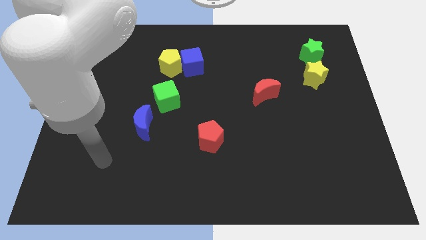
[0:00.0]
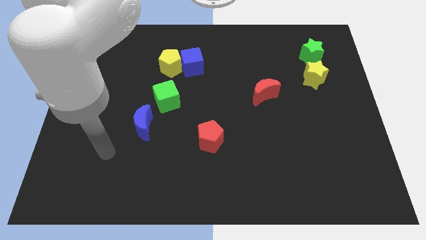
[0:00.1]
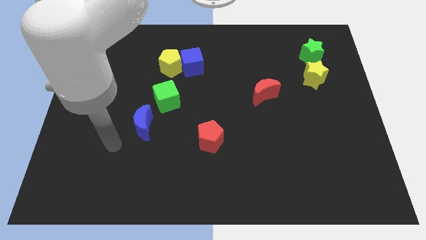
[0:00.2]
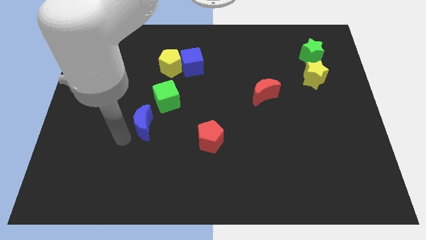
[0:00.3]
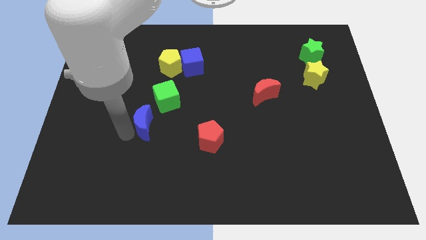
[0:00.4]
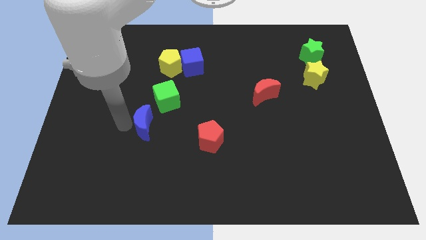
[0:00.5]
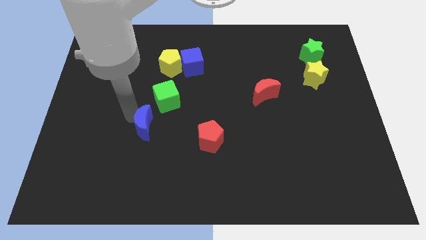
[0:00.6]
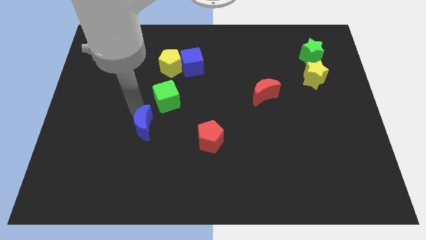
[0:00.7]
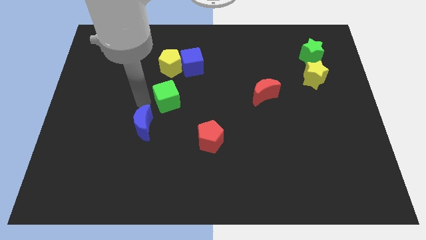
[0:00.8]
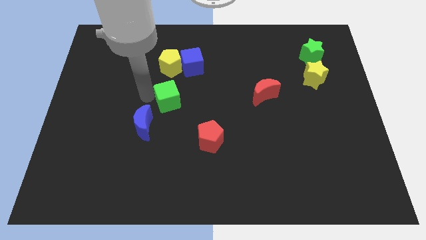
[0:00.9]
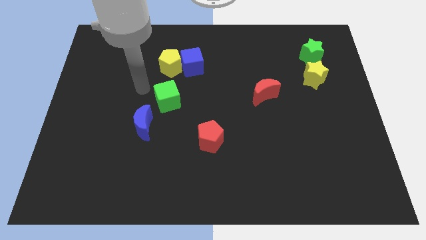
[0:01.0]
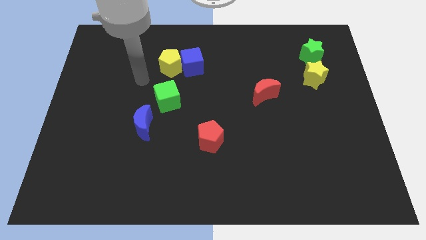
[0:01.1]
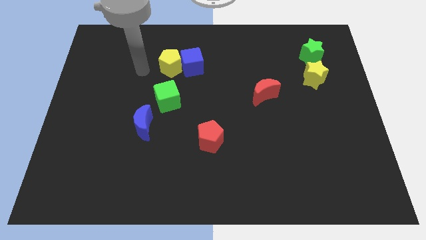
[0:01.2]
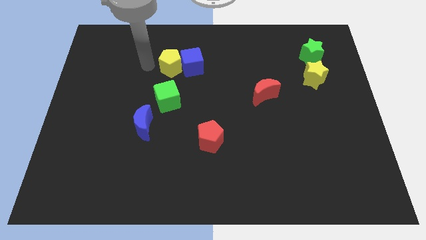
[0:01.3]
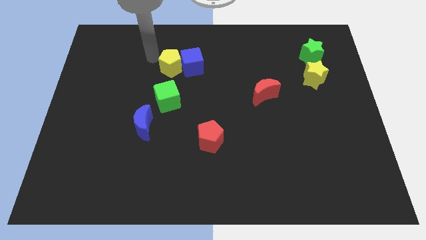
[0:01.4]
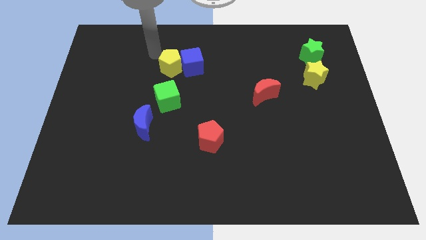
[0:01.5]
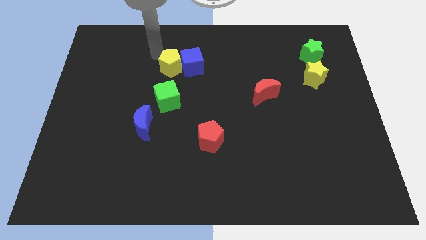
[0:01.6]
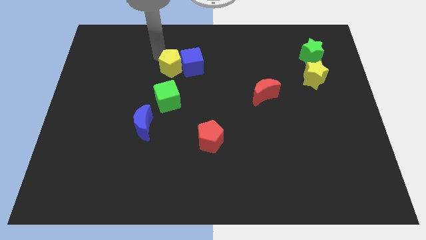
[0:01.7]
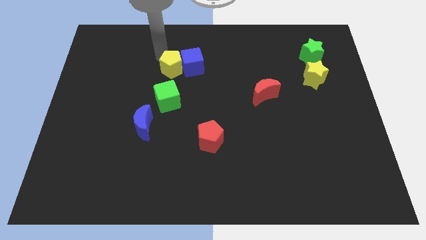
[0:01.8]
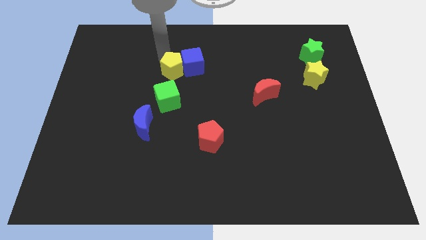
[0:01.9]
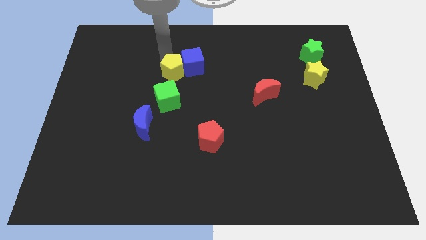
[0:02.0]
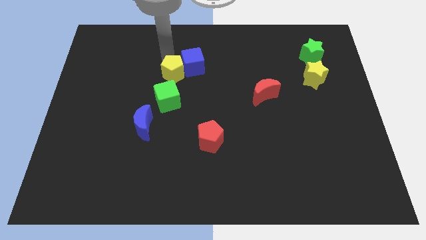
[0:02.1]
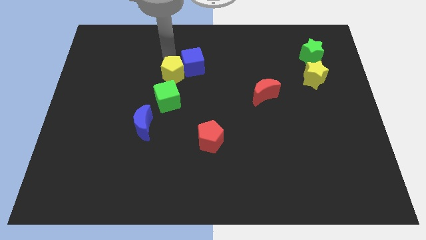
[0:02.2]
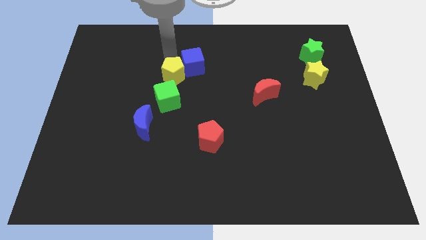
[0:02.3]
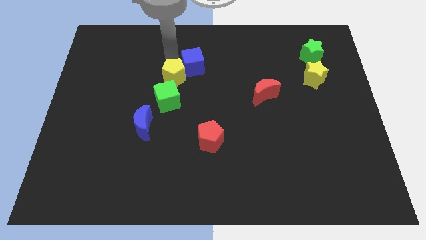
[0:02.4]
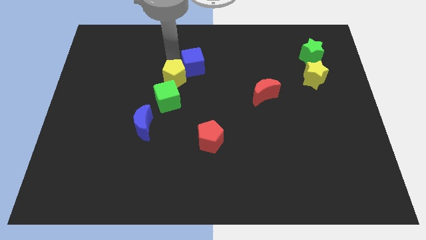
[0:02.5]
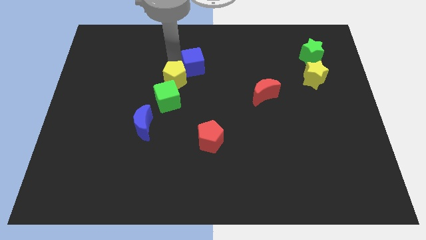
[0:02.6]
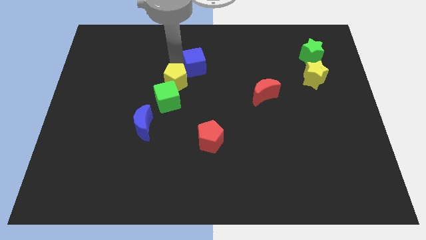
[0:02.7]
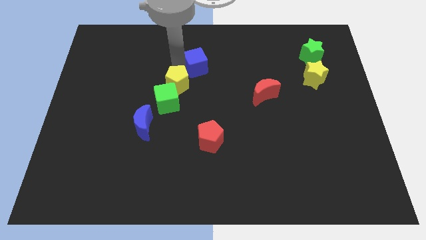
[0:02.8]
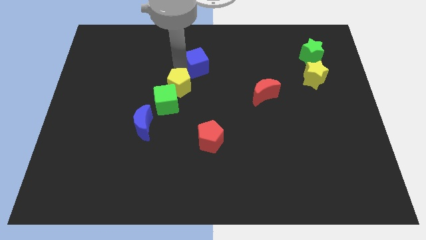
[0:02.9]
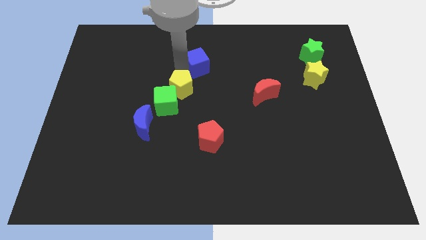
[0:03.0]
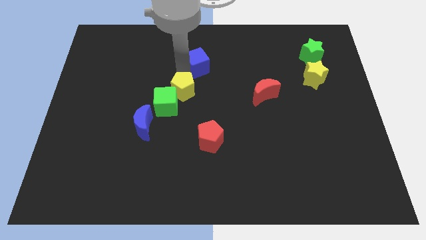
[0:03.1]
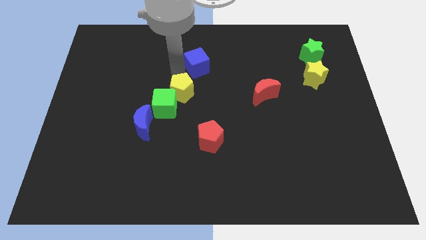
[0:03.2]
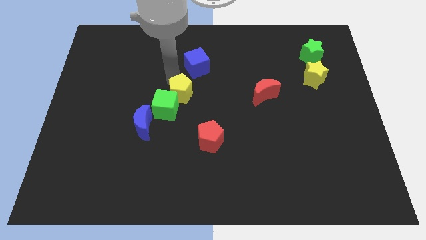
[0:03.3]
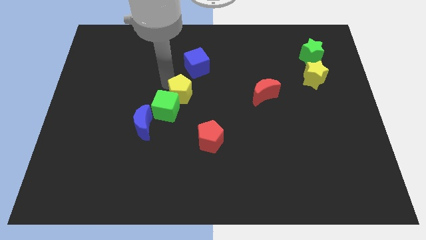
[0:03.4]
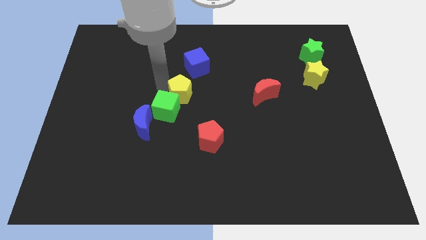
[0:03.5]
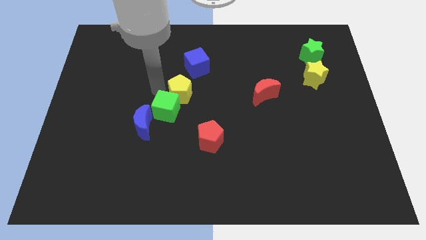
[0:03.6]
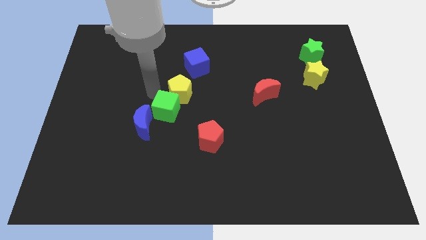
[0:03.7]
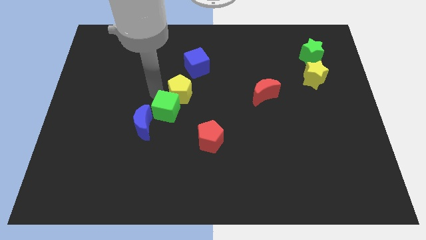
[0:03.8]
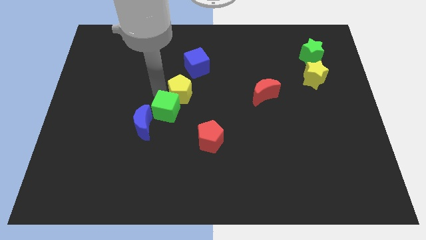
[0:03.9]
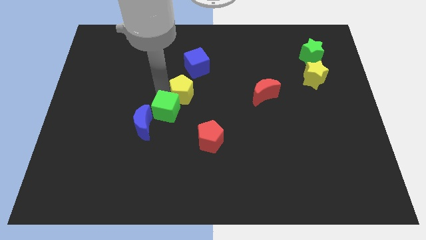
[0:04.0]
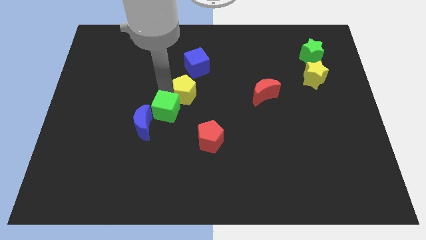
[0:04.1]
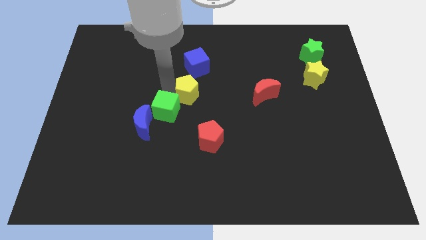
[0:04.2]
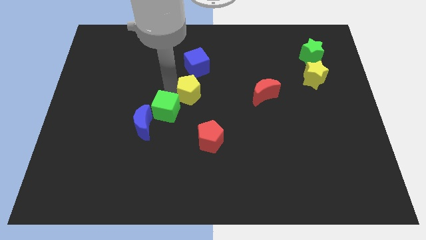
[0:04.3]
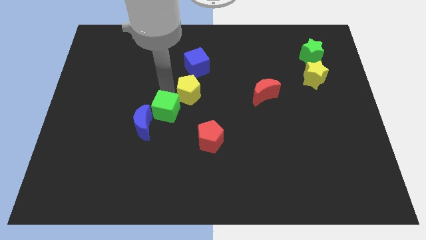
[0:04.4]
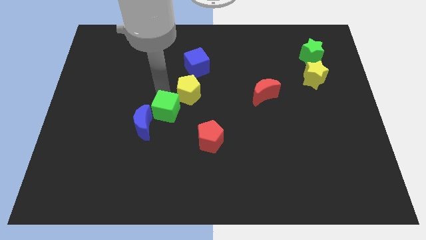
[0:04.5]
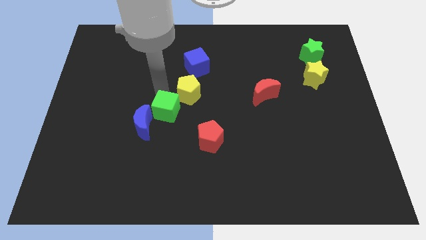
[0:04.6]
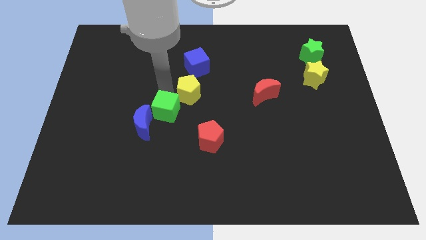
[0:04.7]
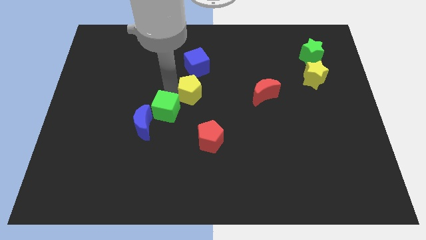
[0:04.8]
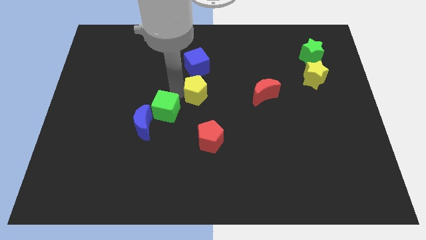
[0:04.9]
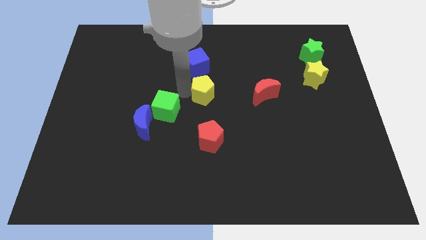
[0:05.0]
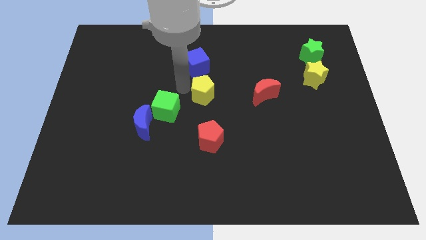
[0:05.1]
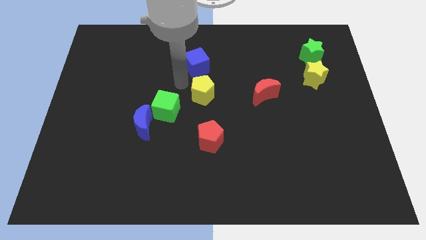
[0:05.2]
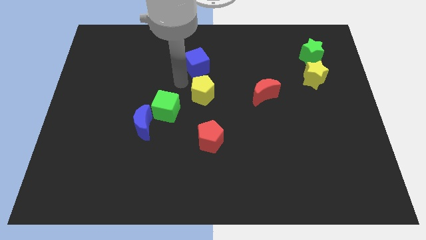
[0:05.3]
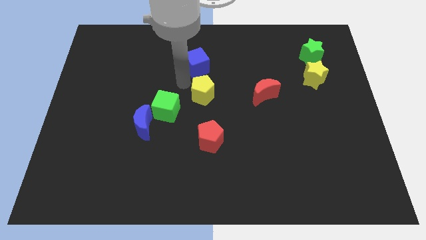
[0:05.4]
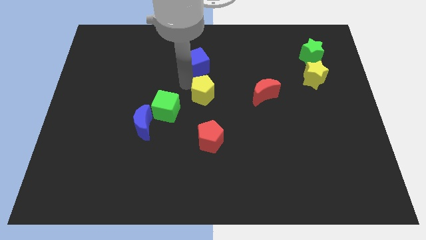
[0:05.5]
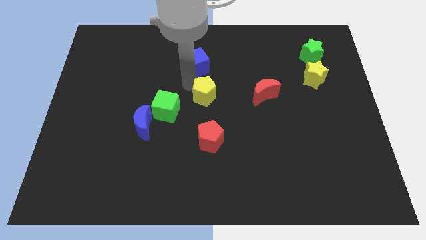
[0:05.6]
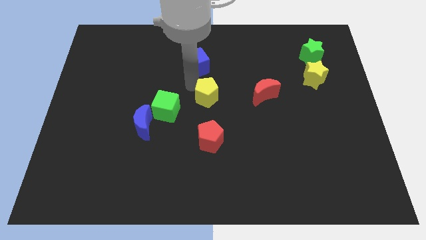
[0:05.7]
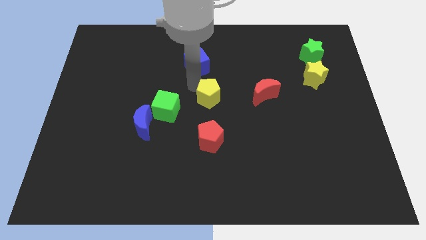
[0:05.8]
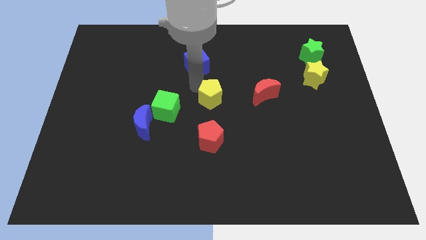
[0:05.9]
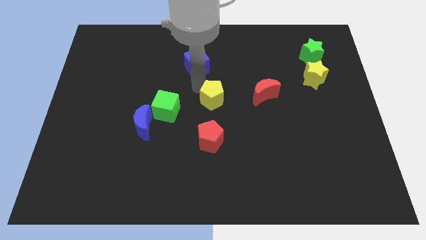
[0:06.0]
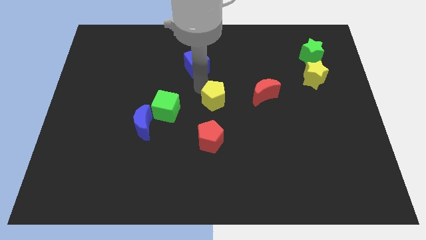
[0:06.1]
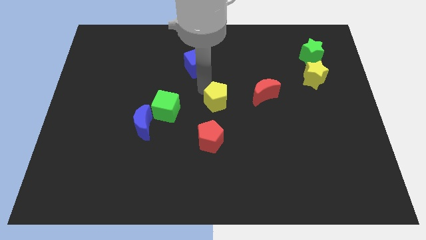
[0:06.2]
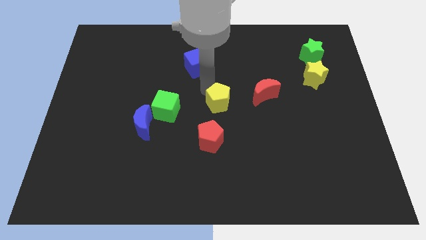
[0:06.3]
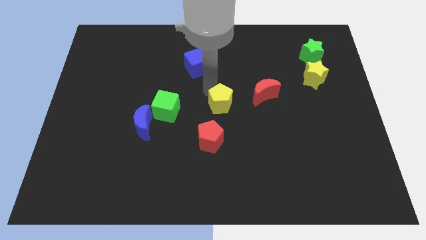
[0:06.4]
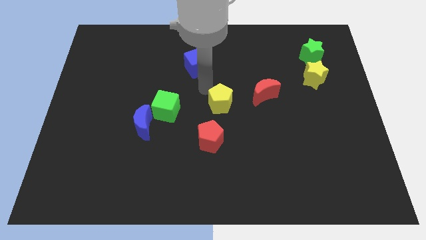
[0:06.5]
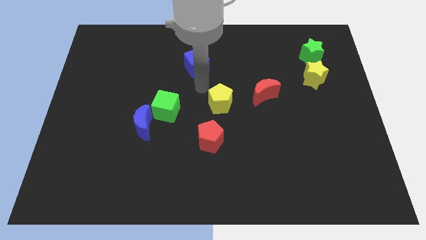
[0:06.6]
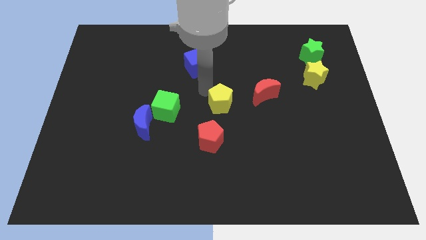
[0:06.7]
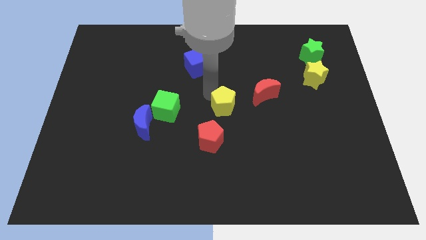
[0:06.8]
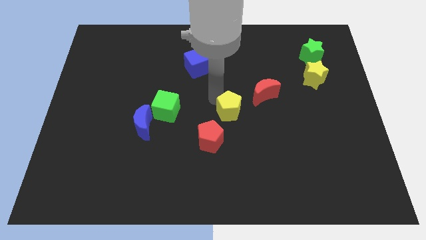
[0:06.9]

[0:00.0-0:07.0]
move the yellow pentagon downwards and then to the right

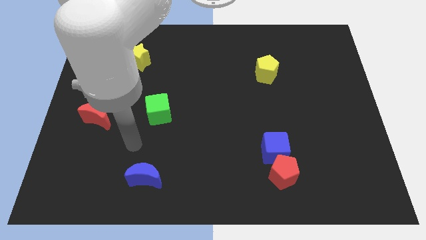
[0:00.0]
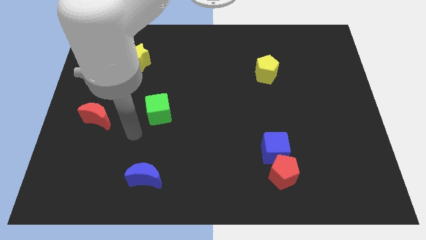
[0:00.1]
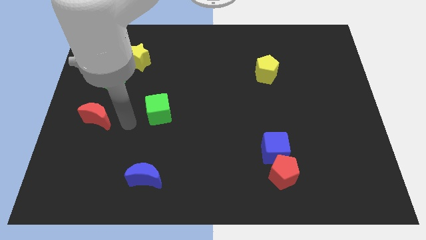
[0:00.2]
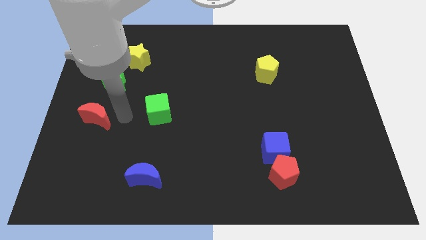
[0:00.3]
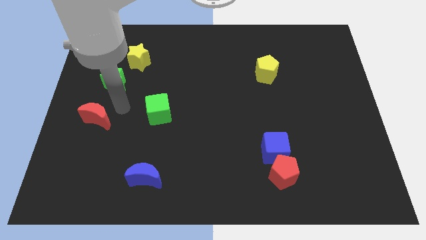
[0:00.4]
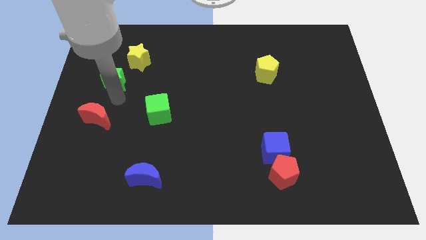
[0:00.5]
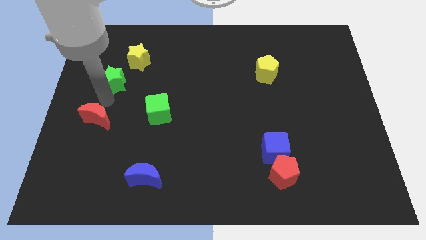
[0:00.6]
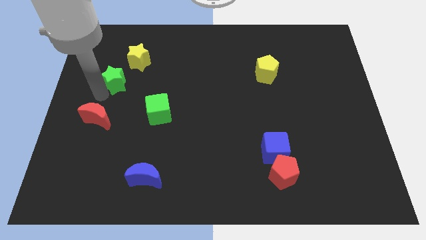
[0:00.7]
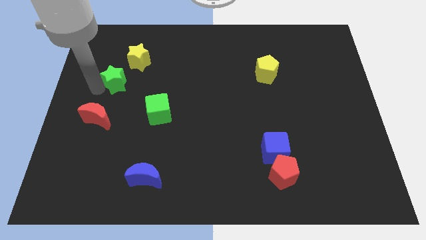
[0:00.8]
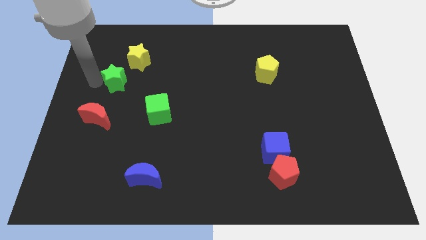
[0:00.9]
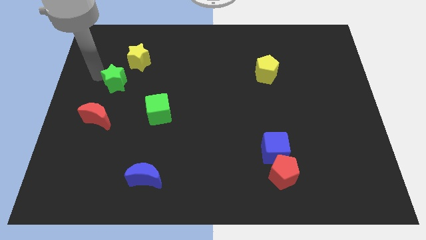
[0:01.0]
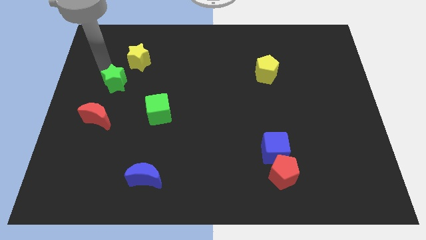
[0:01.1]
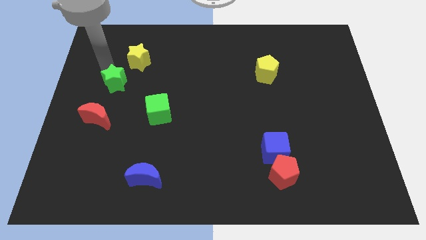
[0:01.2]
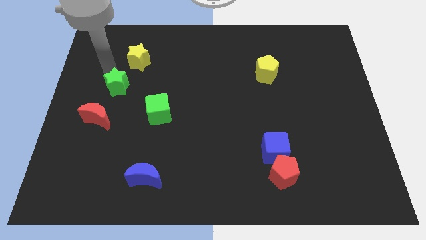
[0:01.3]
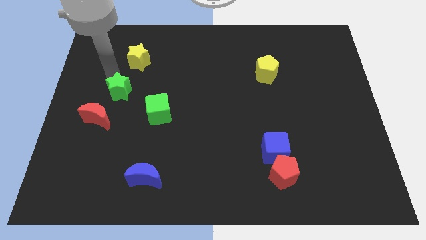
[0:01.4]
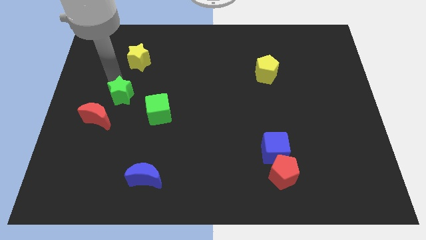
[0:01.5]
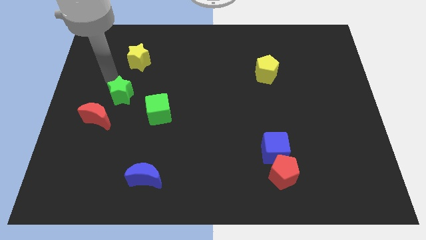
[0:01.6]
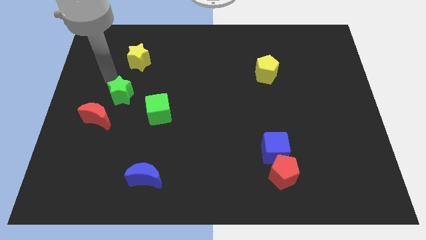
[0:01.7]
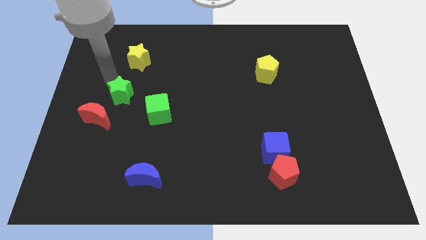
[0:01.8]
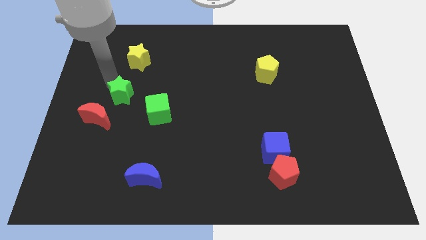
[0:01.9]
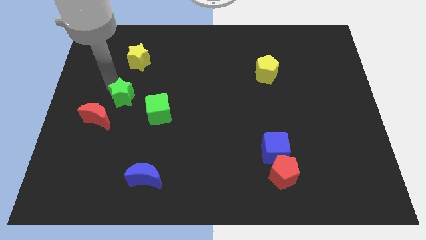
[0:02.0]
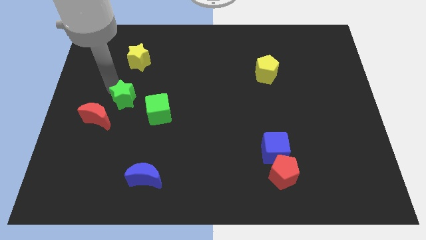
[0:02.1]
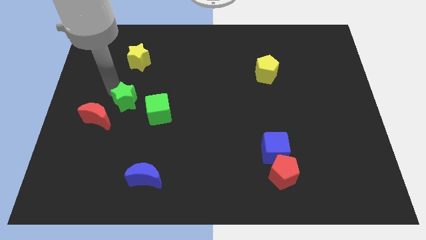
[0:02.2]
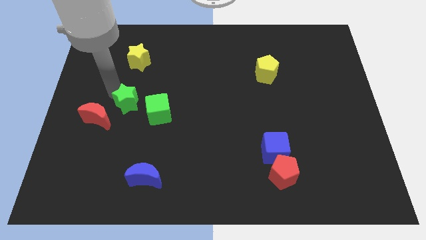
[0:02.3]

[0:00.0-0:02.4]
slightly push the green star down and to the right diagonally
